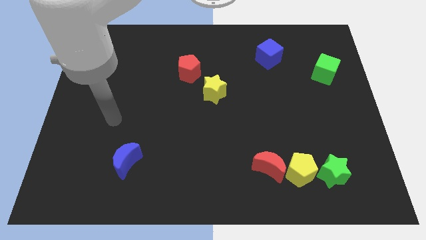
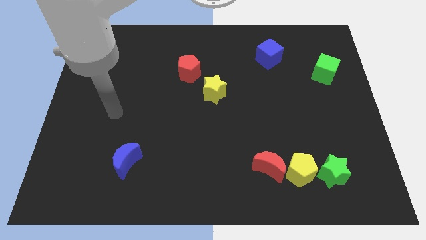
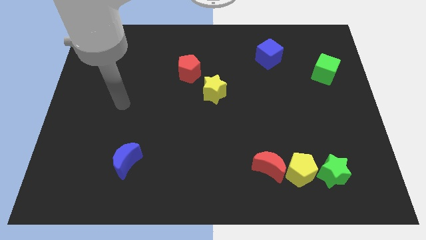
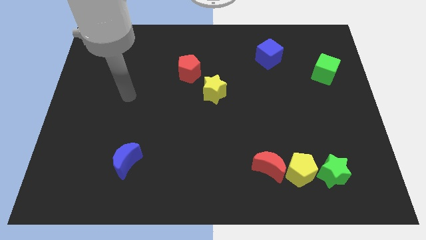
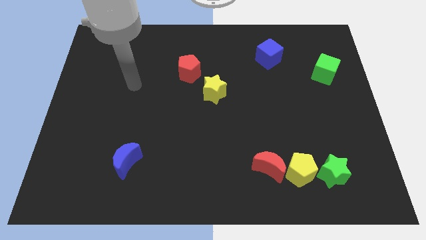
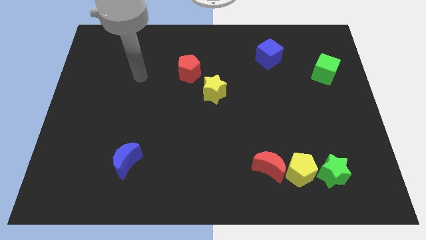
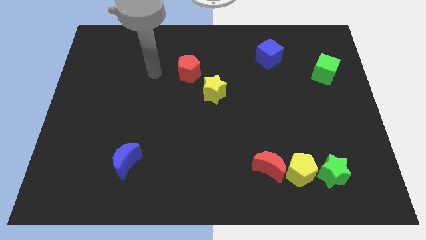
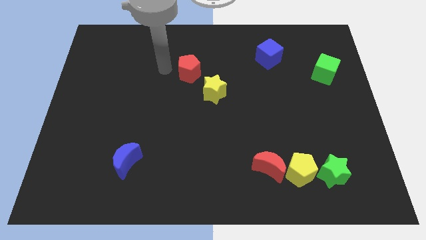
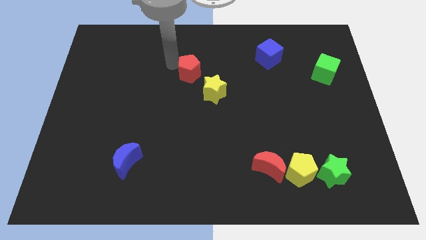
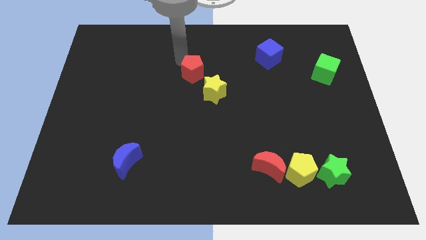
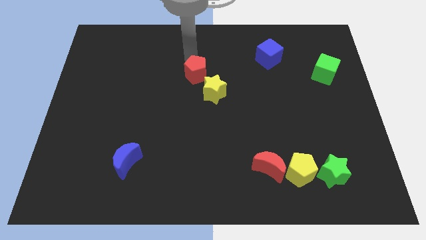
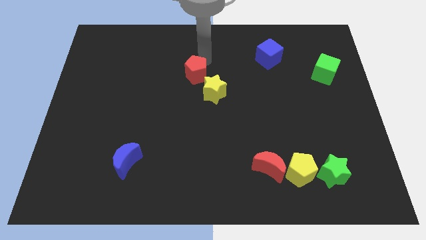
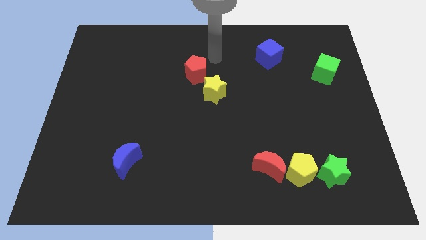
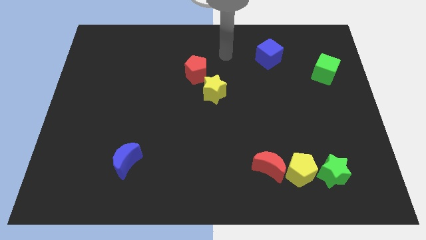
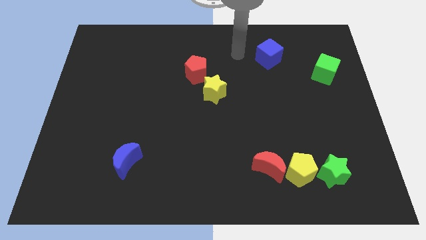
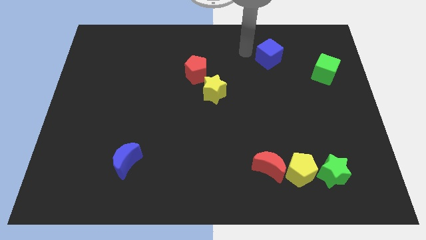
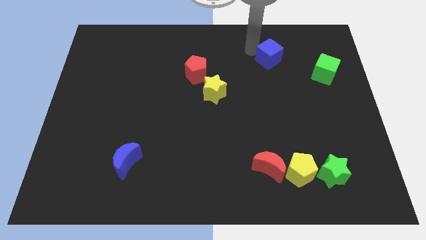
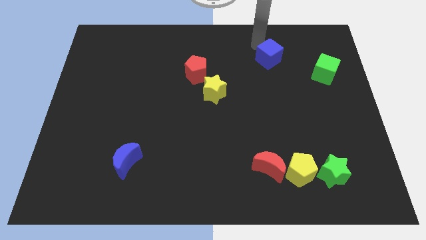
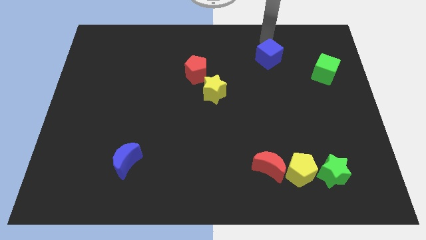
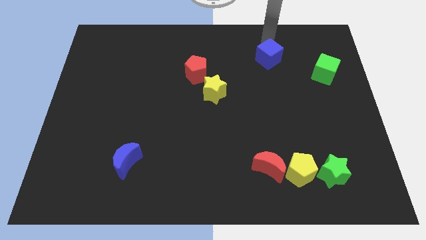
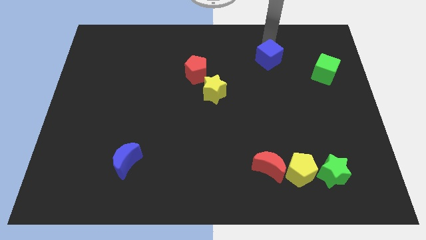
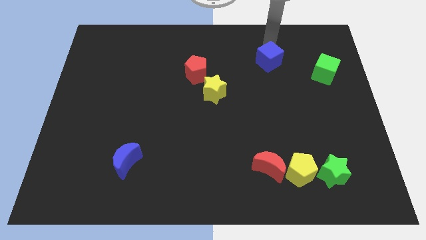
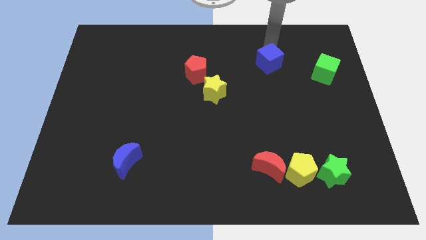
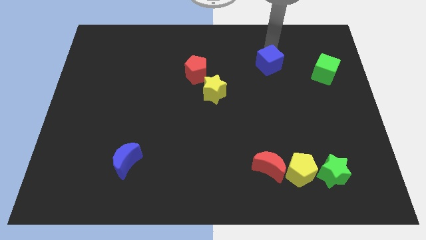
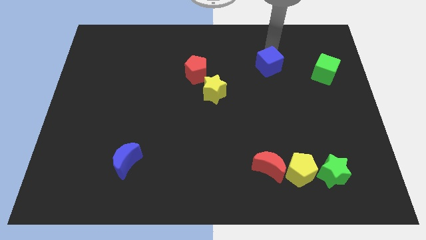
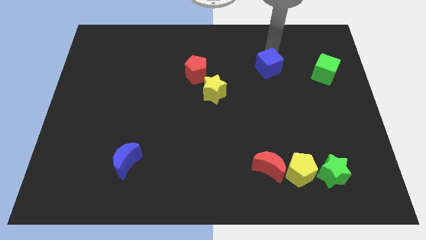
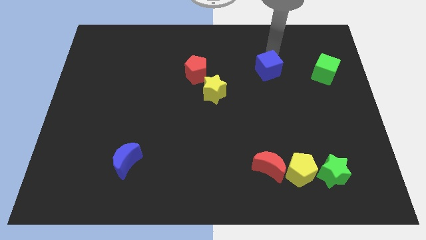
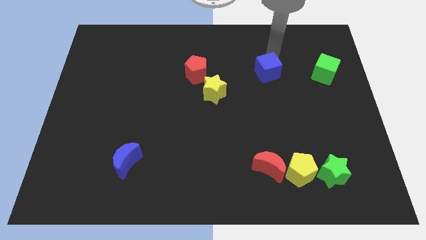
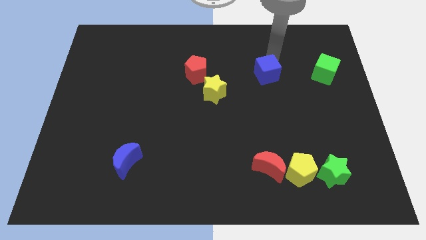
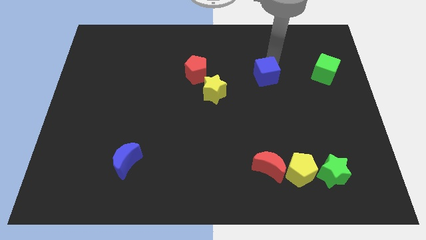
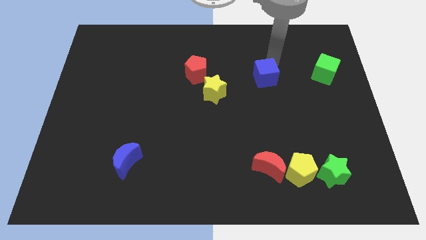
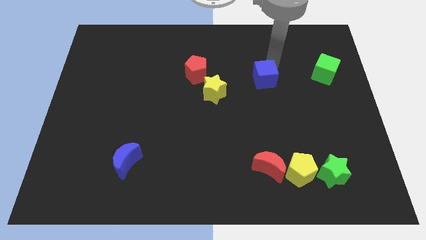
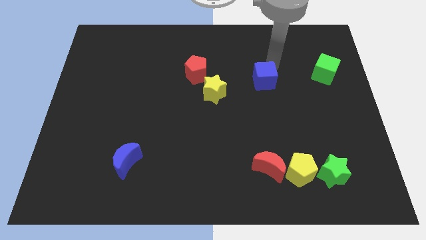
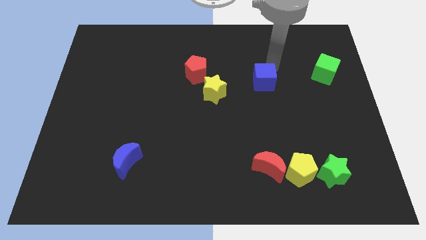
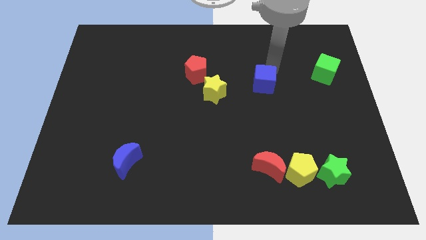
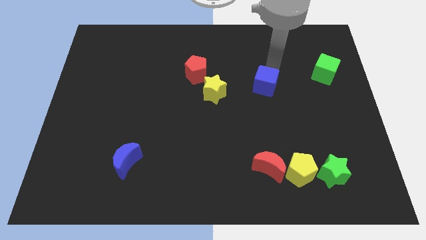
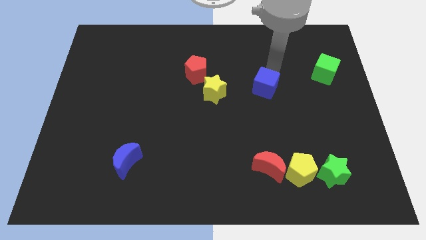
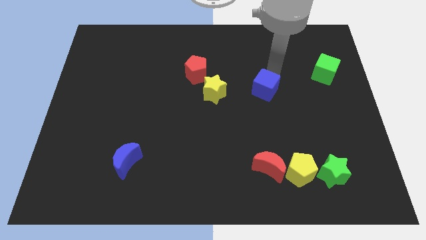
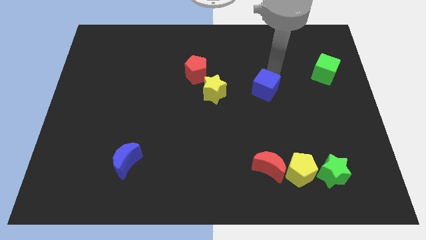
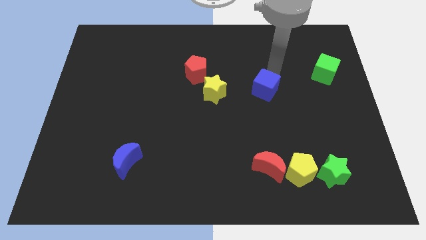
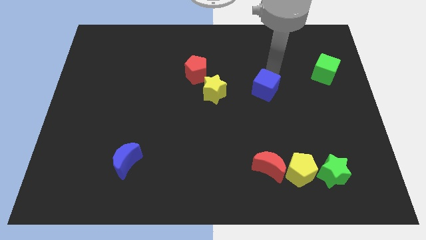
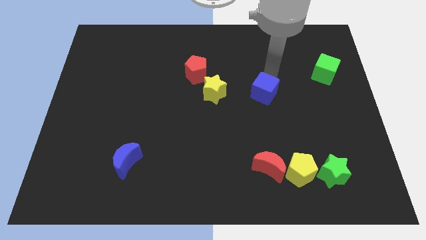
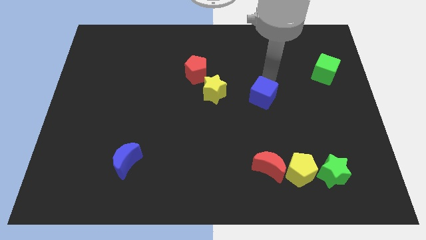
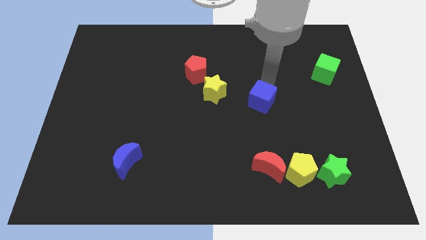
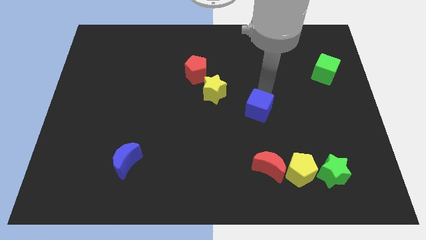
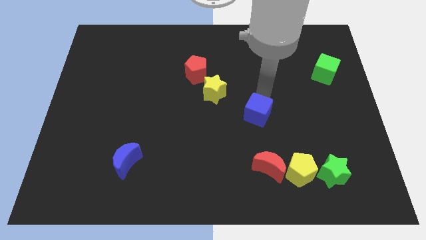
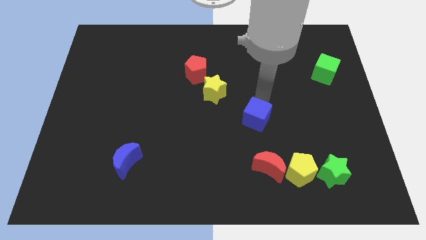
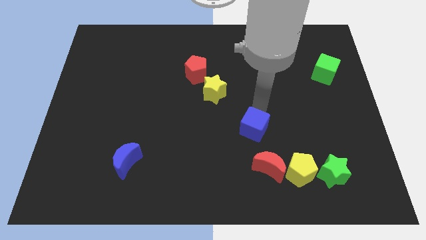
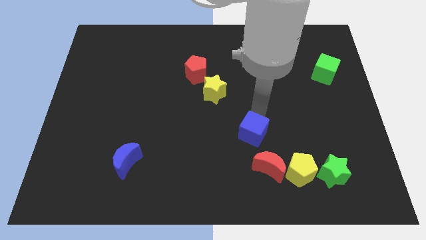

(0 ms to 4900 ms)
slide the blue cube diagonally up and to the left of the red moon

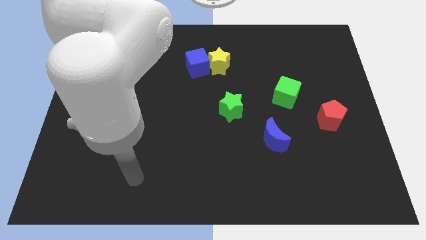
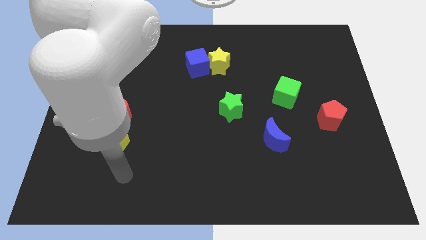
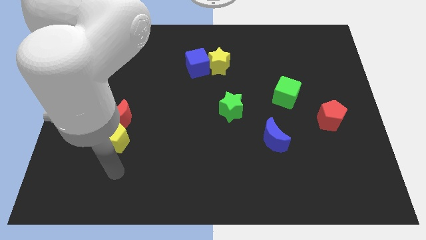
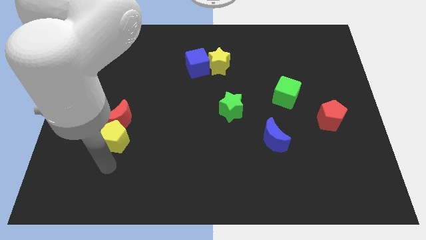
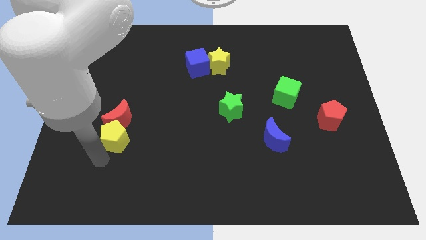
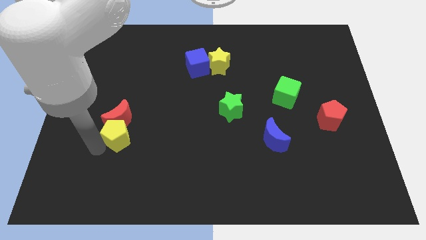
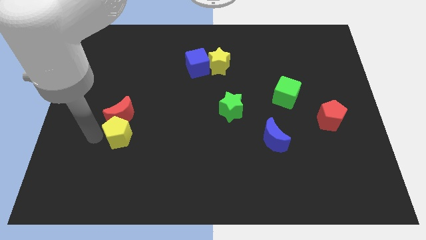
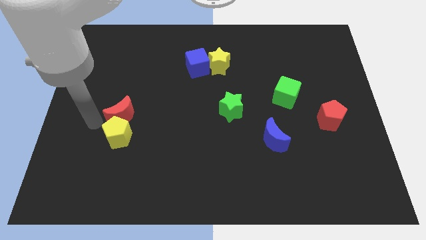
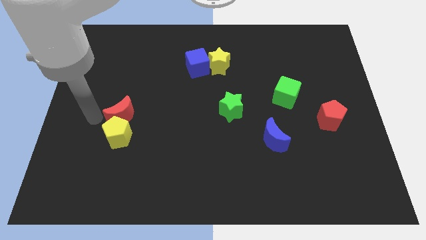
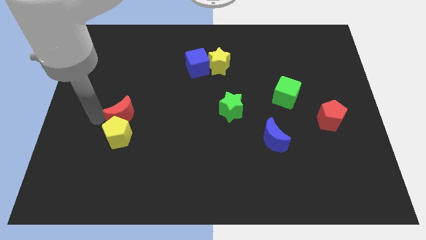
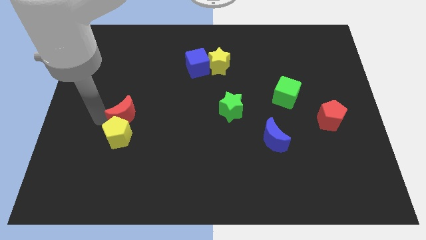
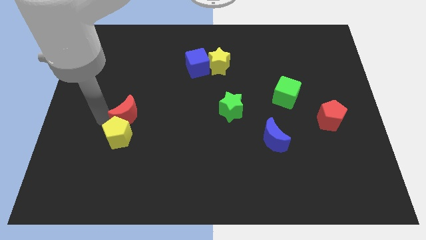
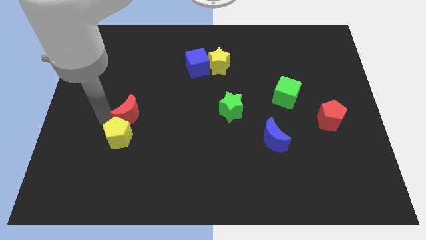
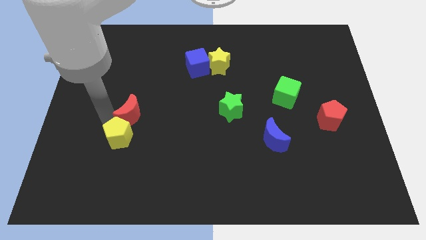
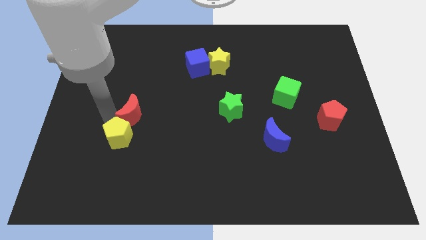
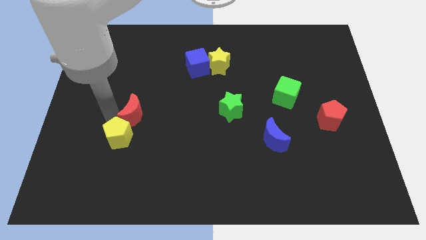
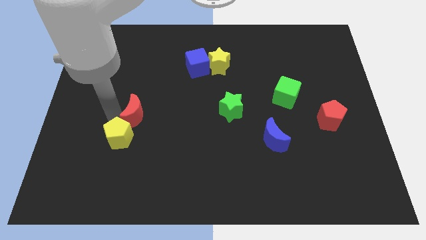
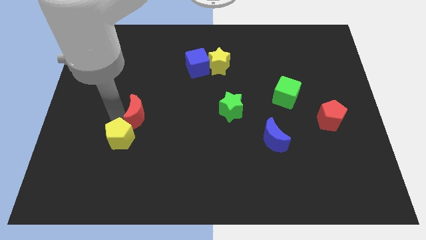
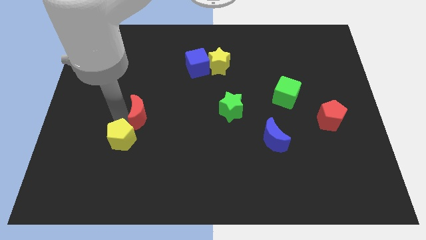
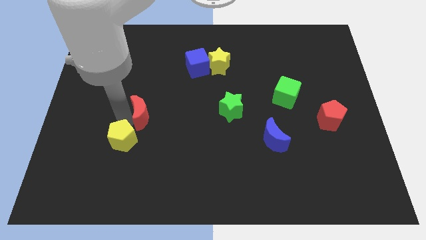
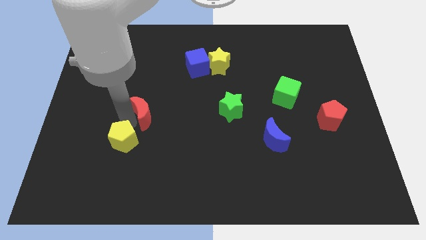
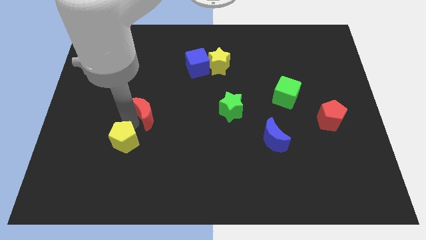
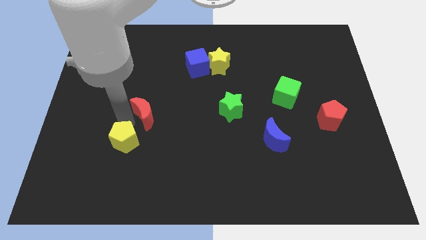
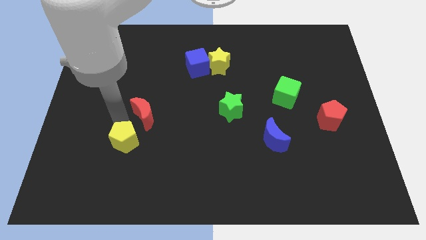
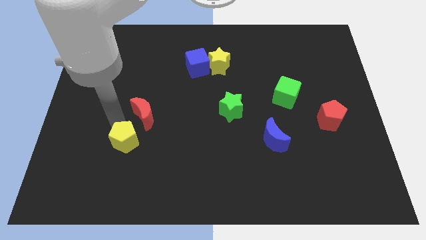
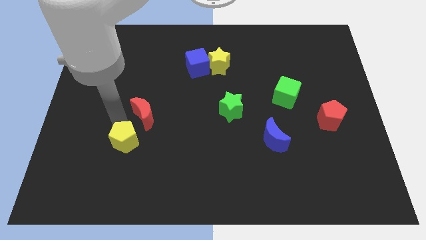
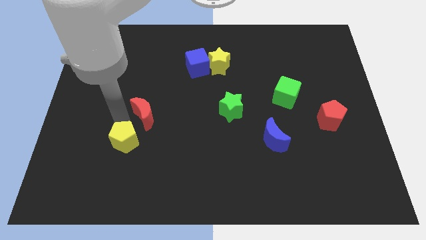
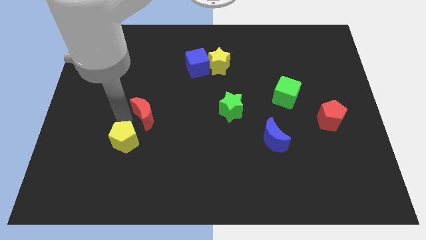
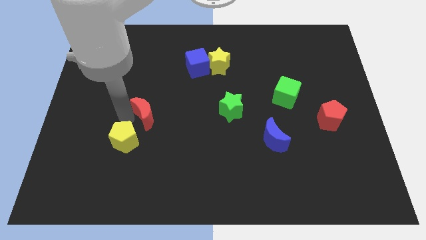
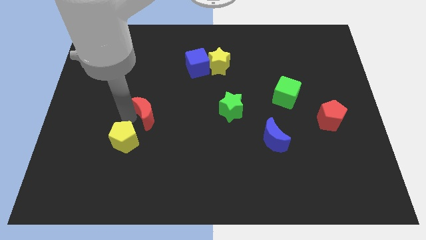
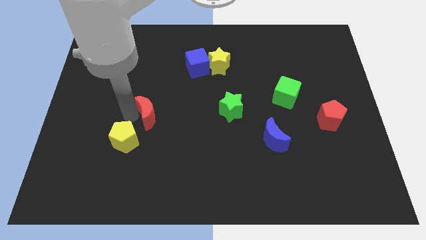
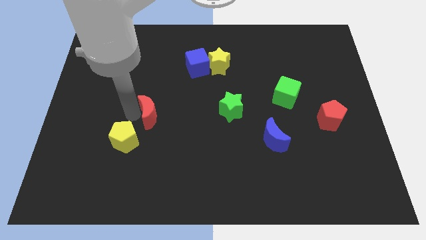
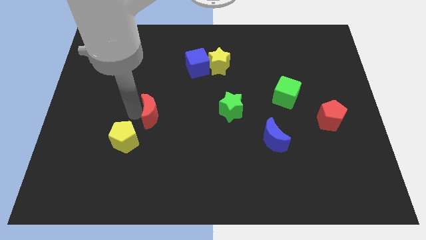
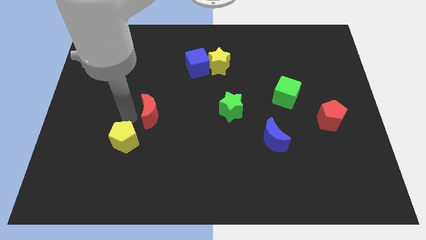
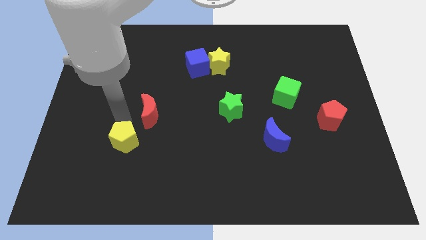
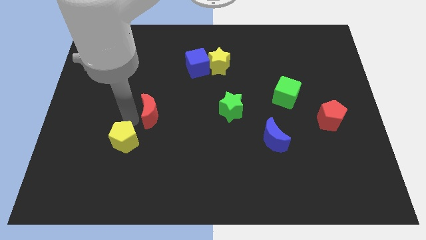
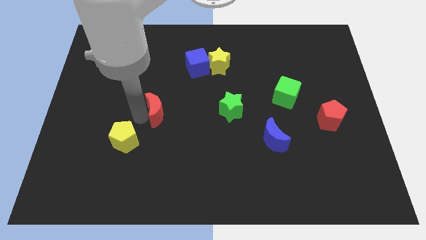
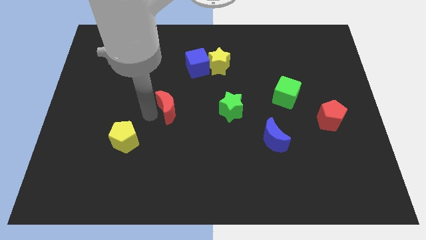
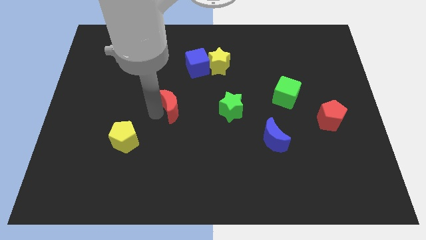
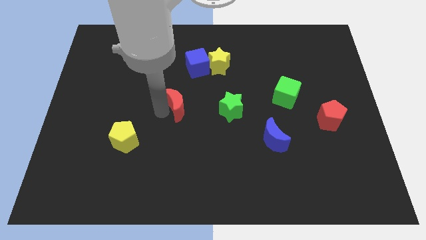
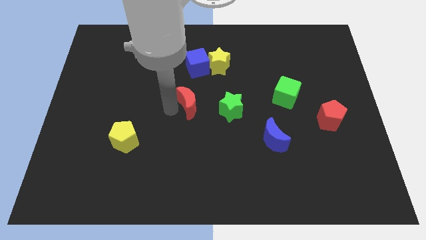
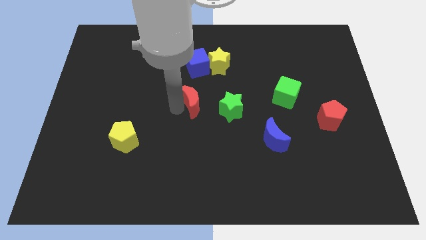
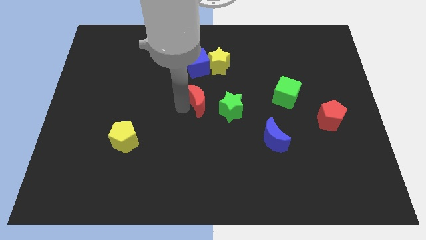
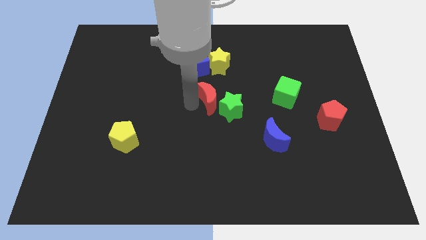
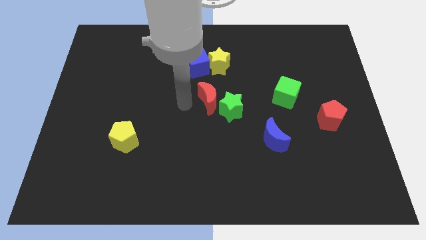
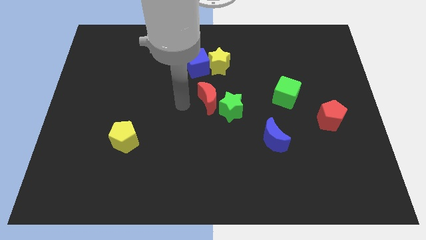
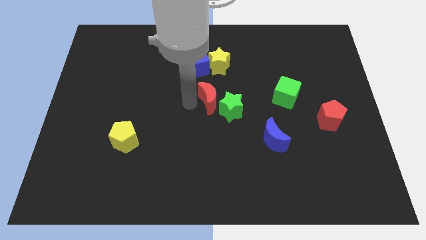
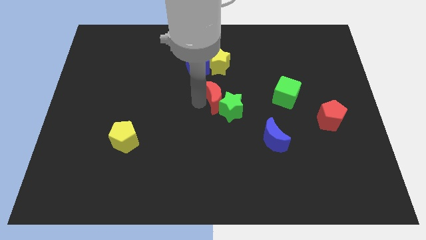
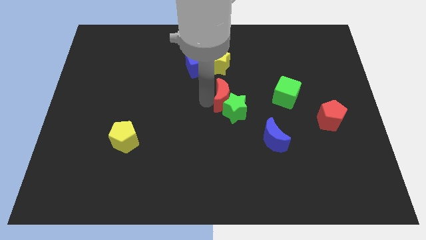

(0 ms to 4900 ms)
push the red moon to the left side of the green cube
